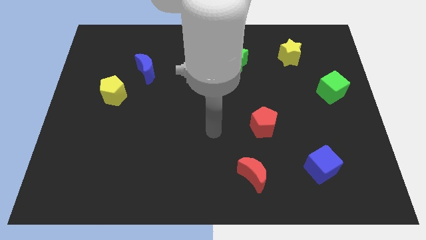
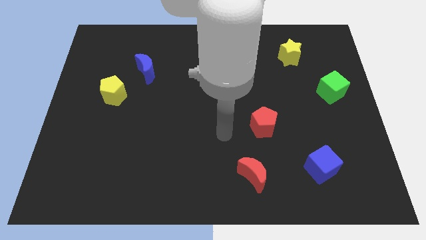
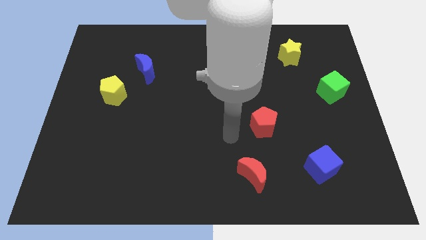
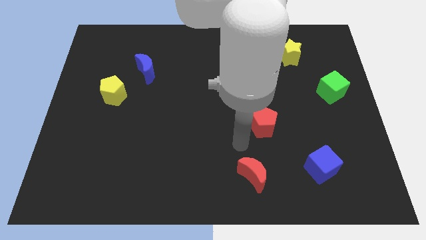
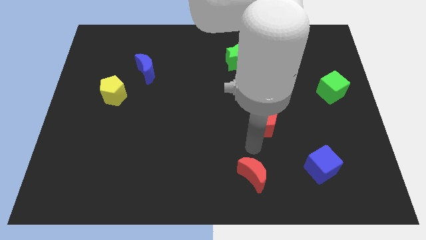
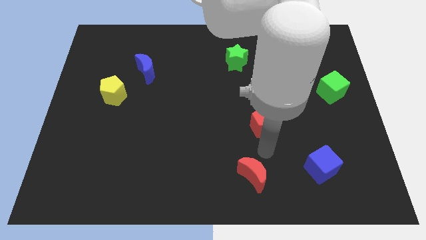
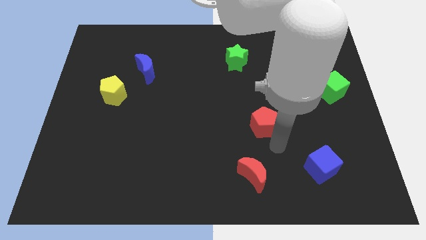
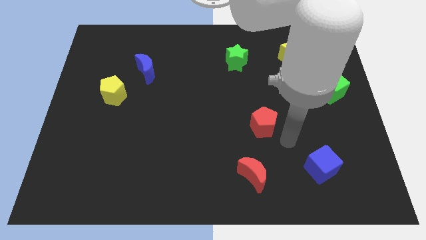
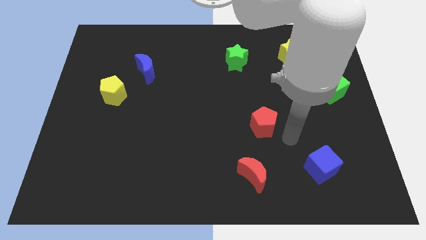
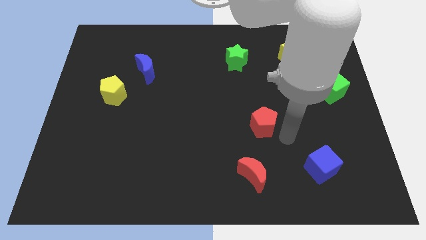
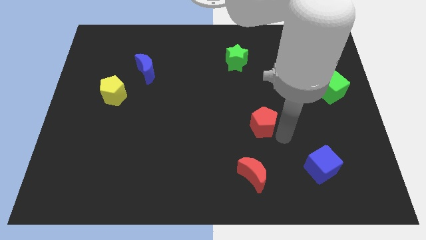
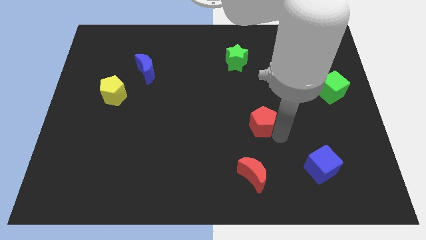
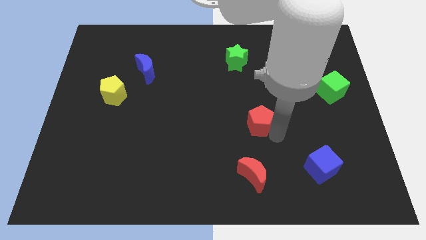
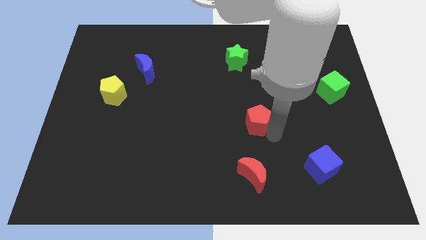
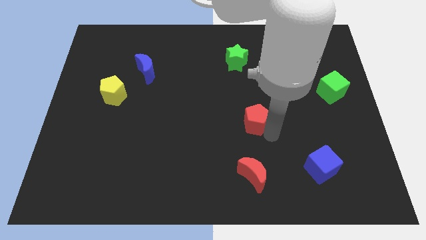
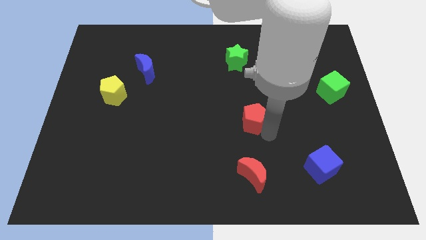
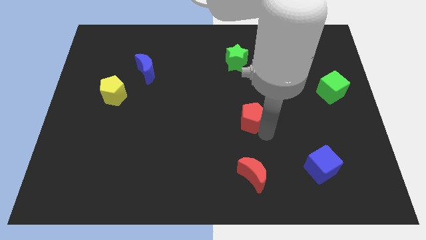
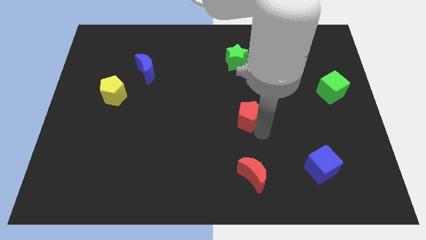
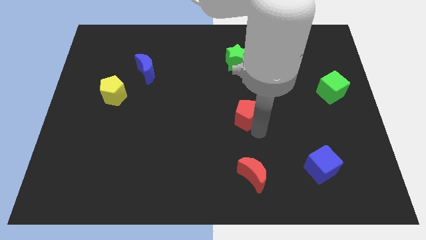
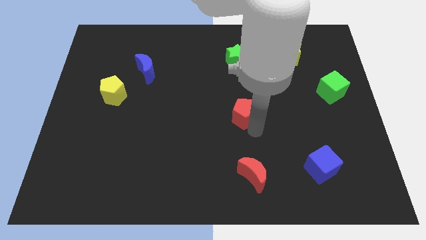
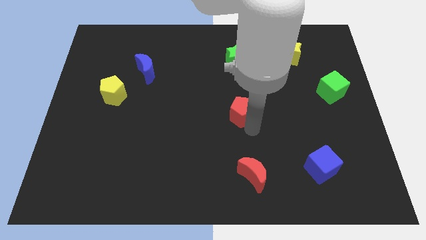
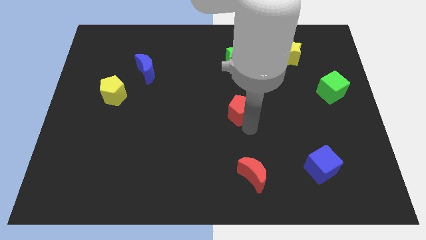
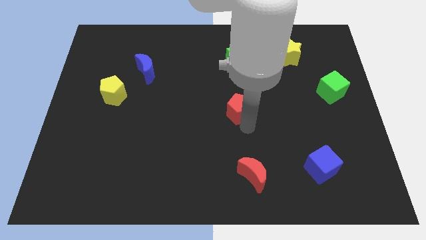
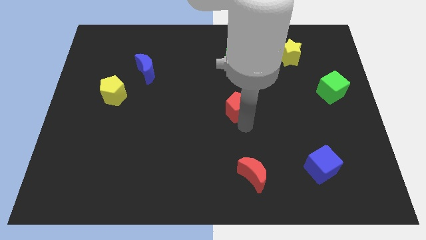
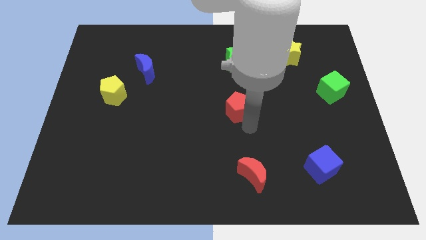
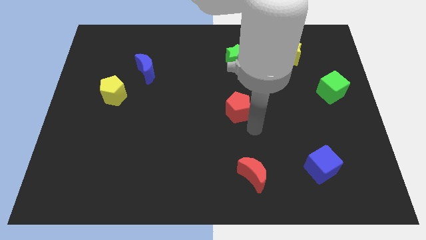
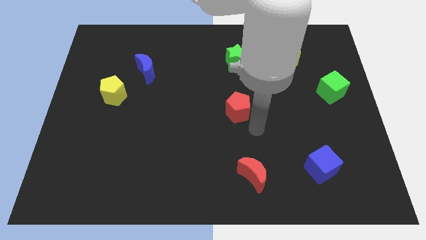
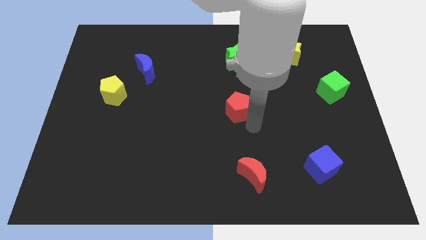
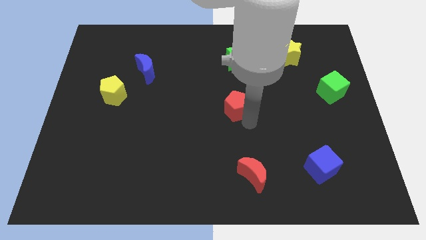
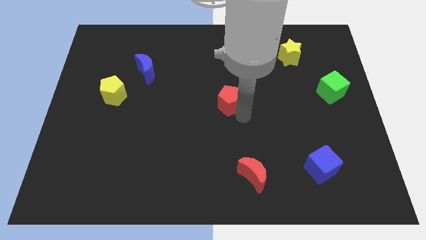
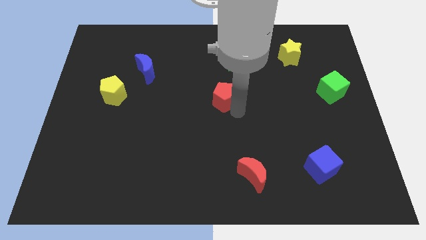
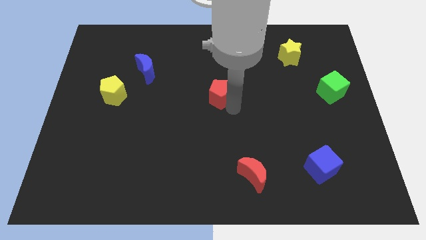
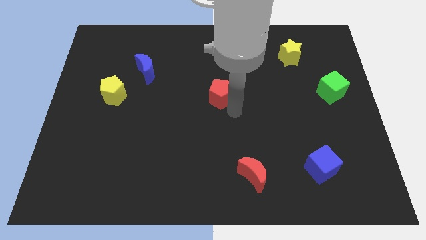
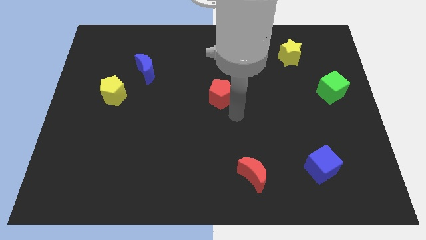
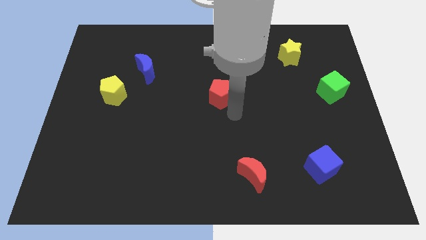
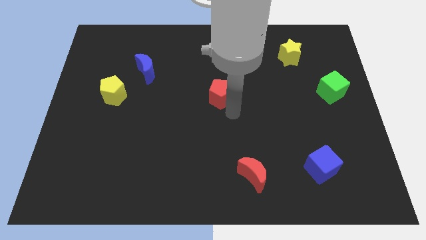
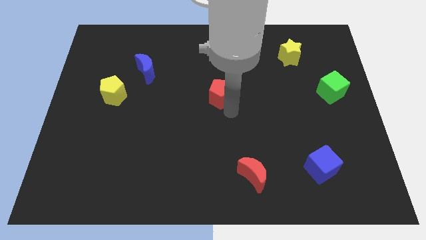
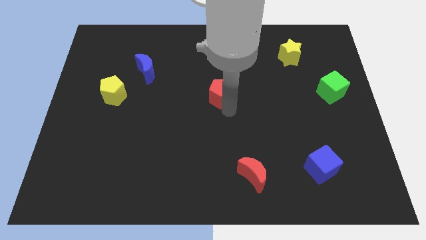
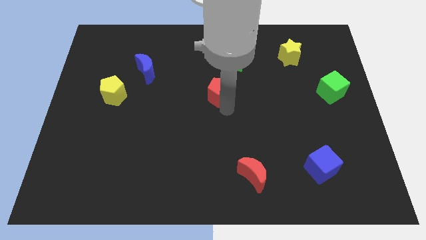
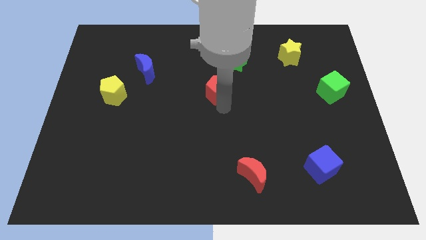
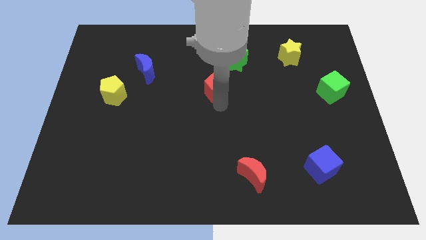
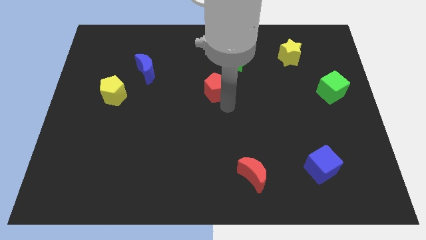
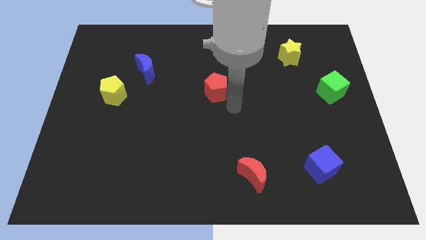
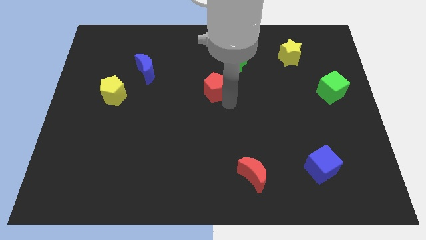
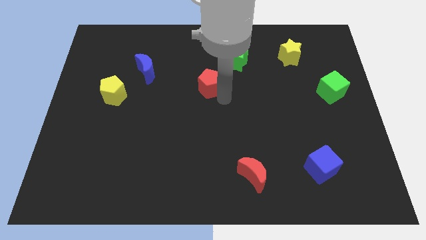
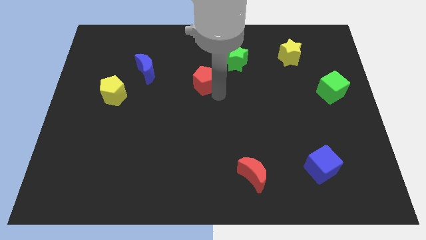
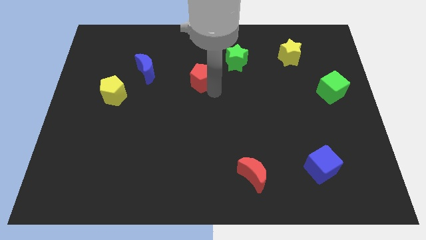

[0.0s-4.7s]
slide the red pentagon diagonally upwards and to the left

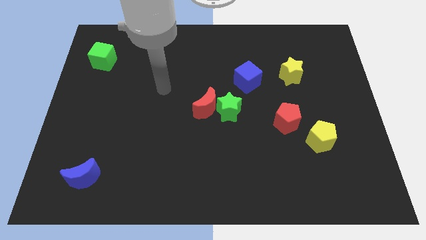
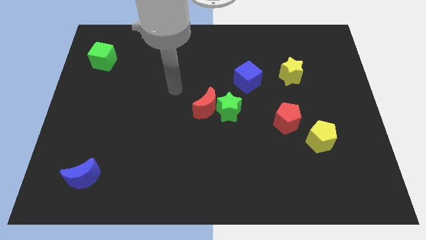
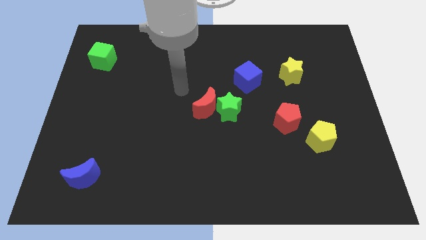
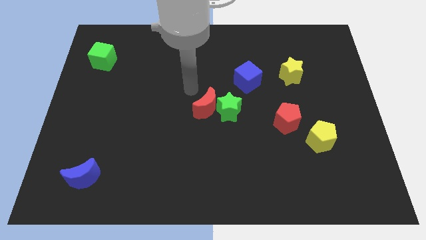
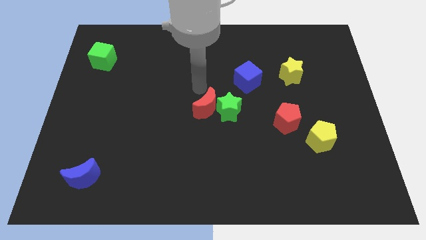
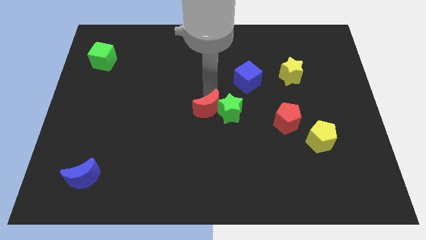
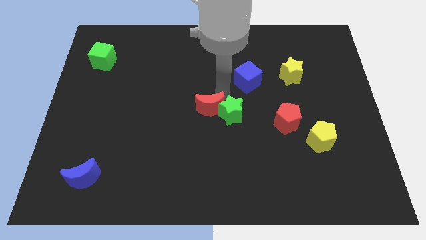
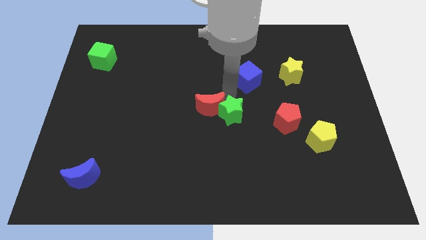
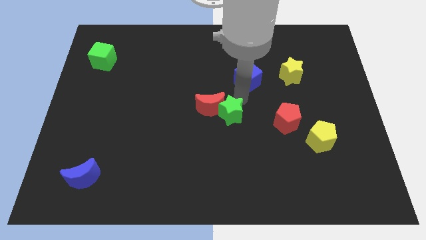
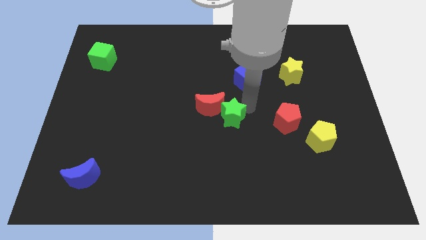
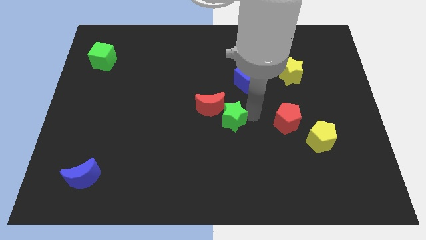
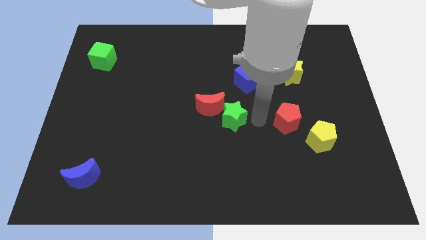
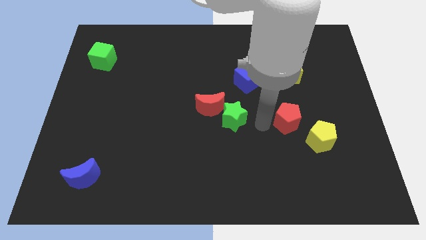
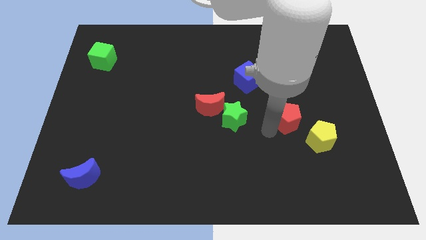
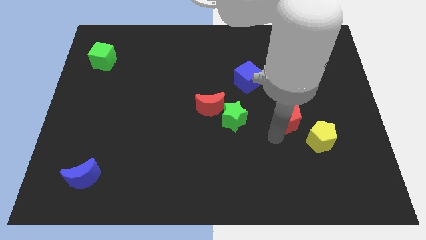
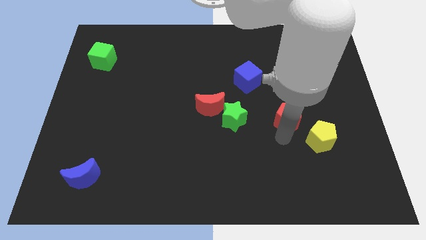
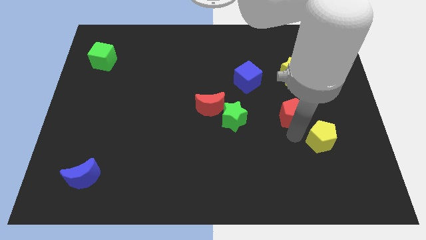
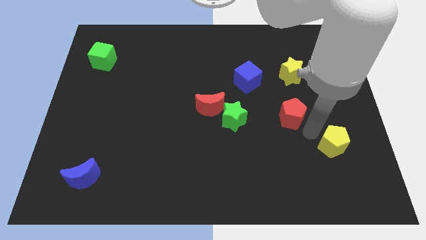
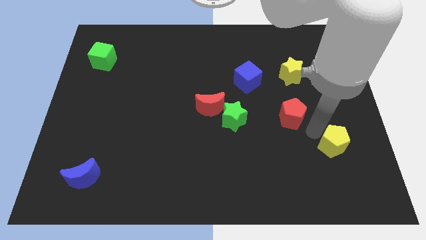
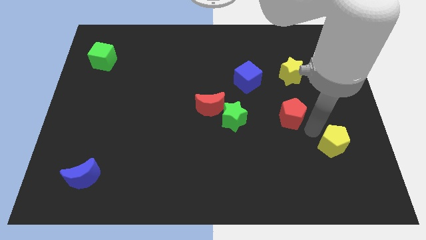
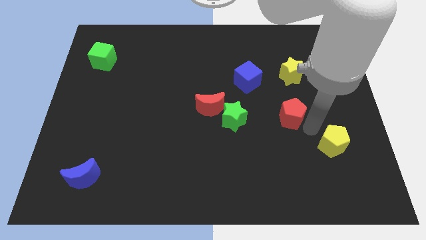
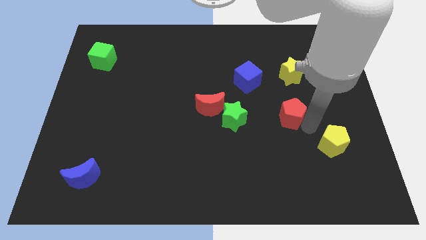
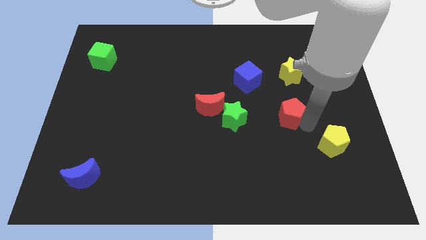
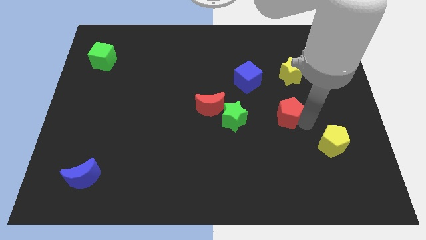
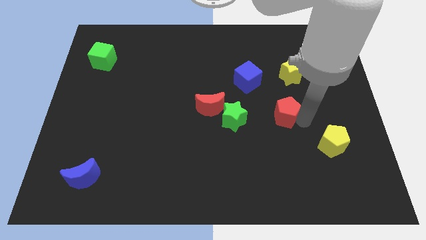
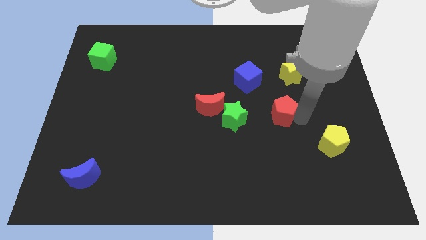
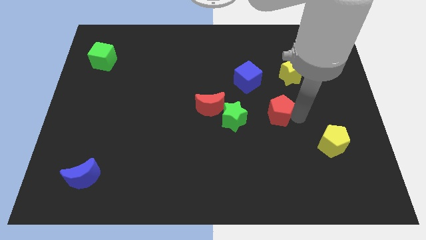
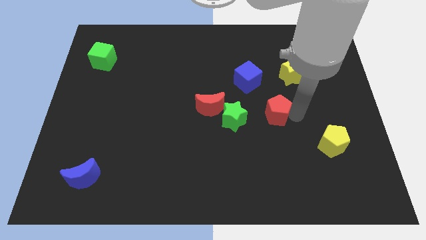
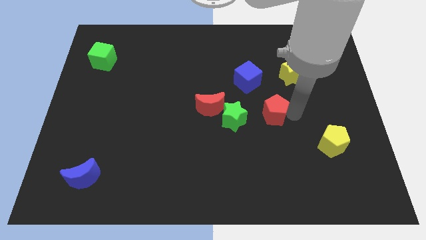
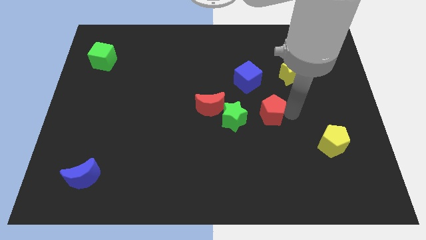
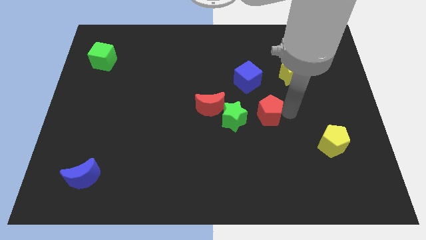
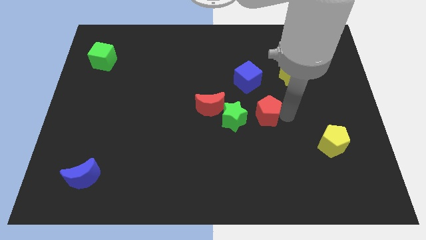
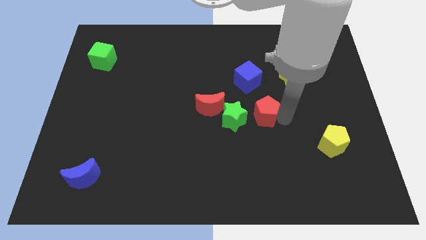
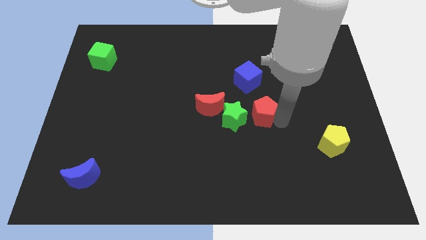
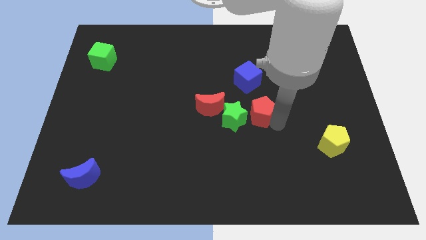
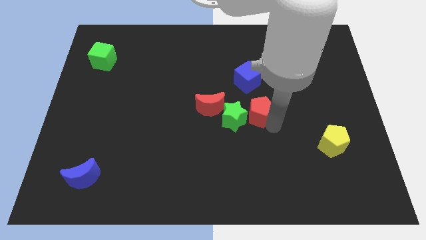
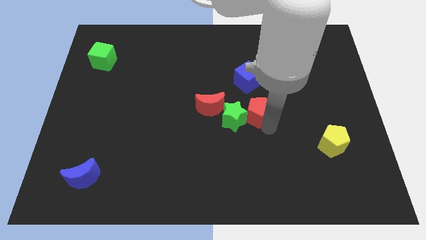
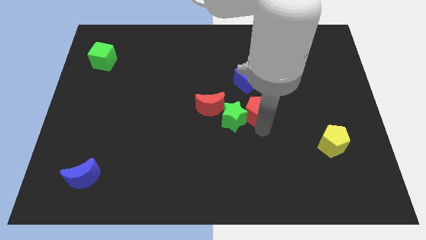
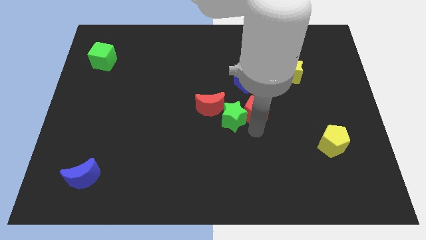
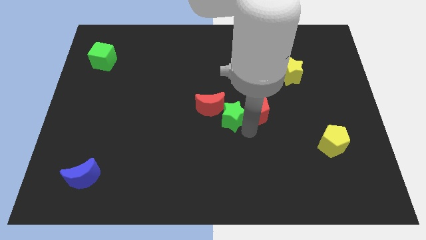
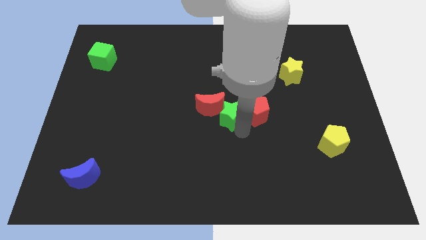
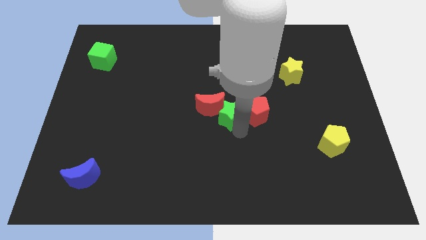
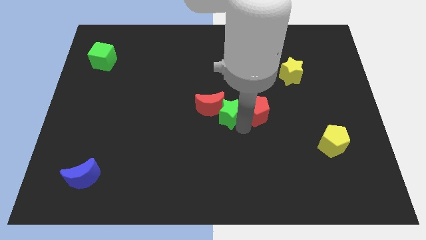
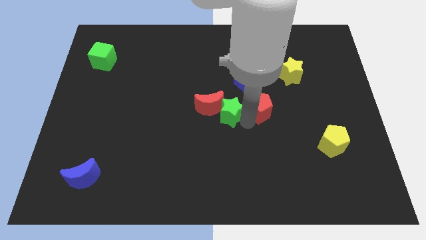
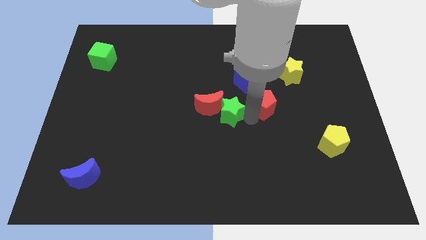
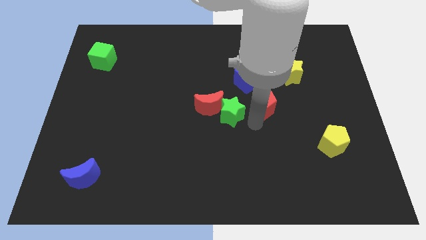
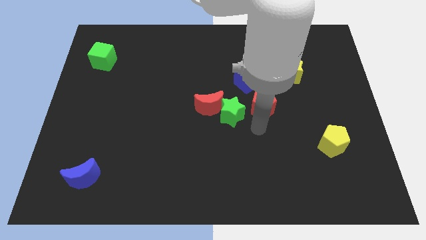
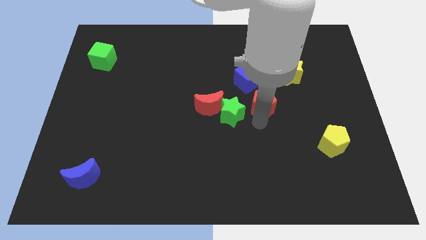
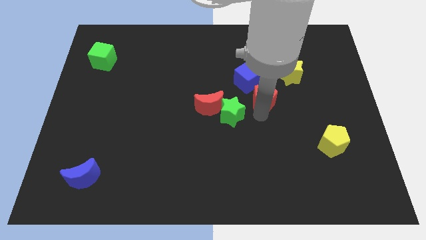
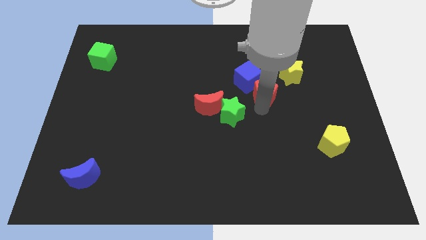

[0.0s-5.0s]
move the red pentagon slightly upwards
